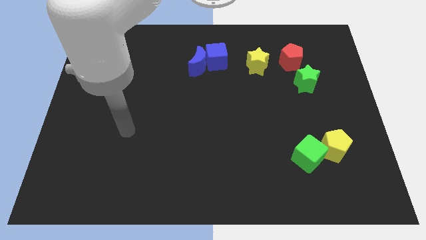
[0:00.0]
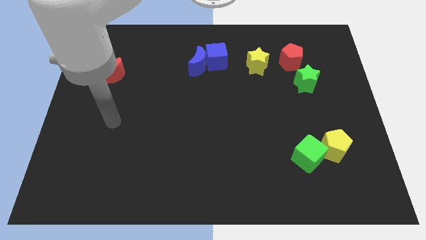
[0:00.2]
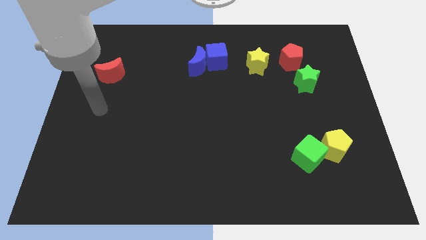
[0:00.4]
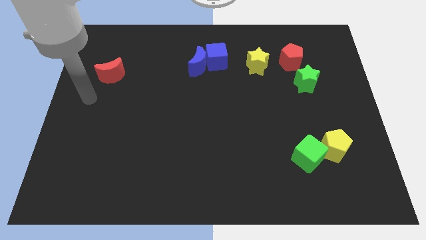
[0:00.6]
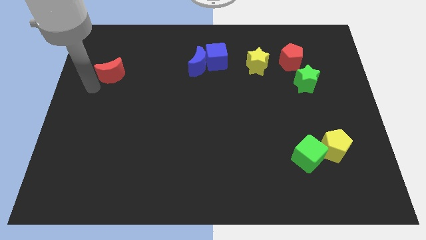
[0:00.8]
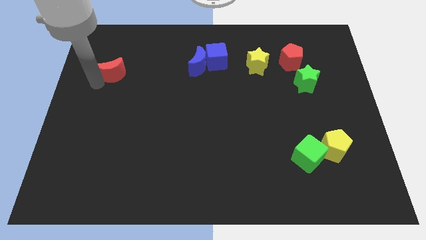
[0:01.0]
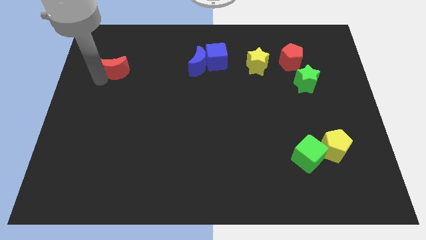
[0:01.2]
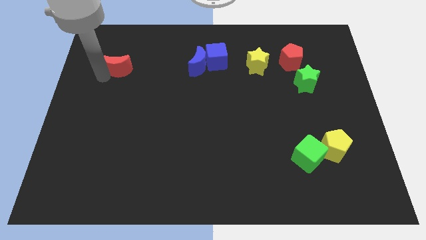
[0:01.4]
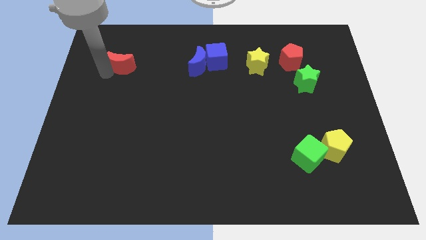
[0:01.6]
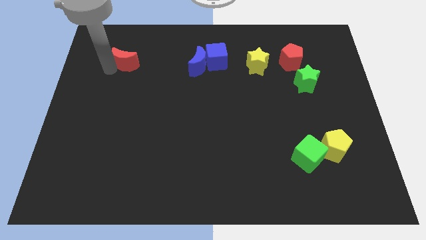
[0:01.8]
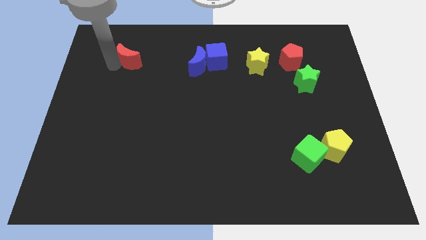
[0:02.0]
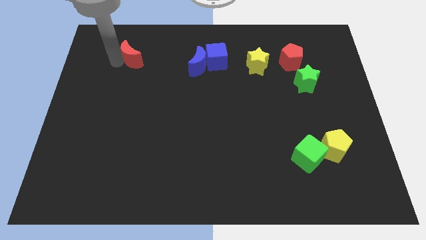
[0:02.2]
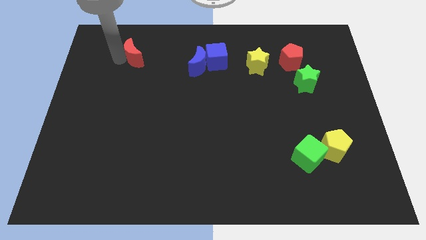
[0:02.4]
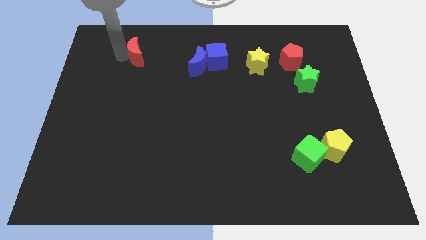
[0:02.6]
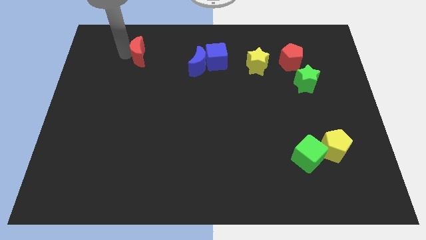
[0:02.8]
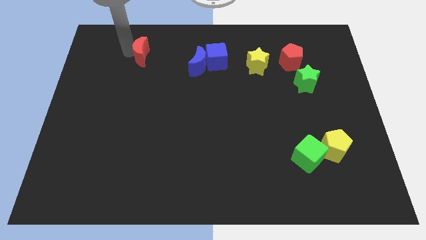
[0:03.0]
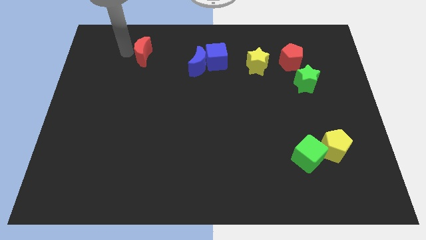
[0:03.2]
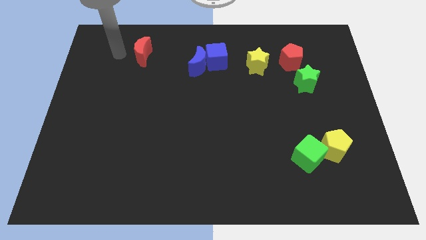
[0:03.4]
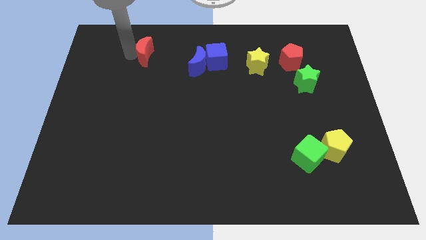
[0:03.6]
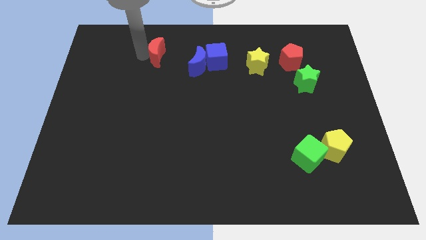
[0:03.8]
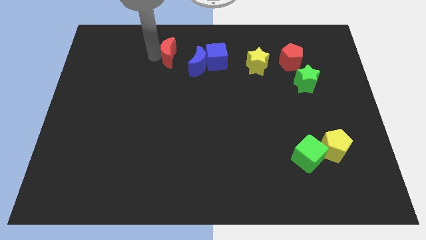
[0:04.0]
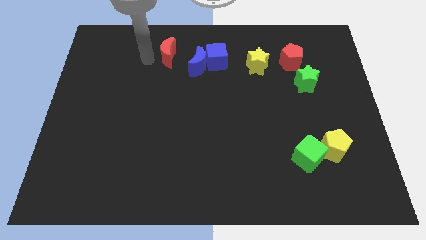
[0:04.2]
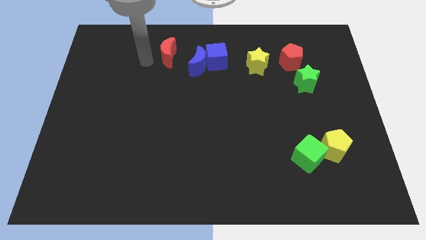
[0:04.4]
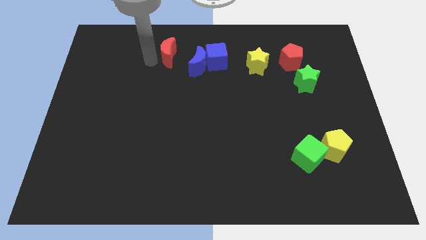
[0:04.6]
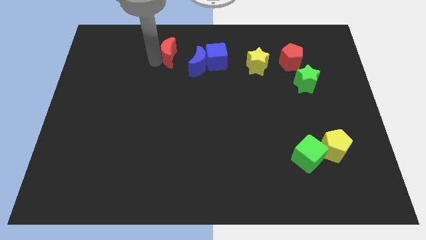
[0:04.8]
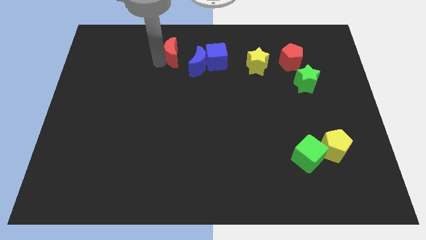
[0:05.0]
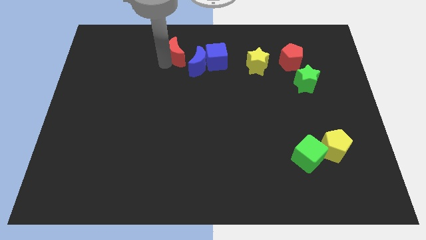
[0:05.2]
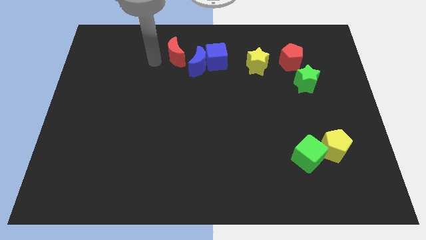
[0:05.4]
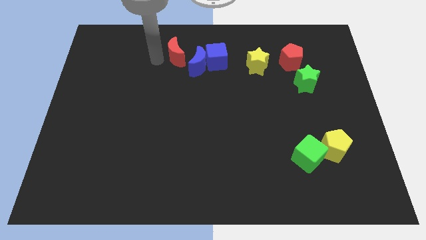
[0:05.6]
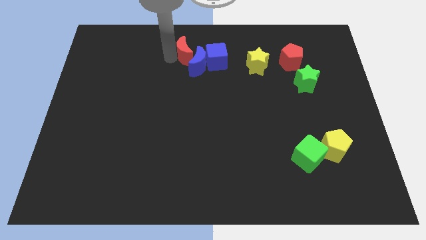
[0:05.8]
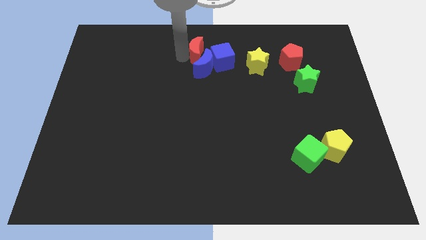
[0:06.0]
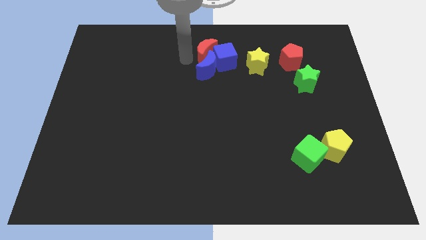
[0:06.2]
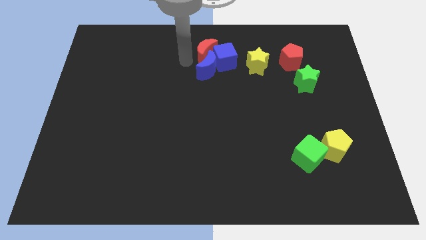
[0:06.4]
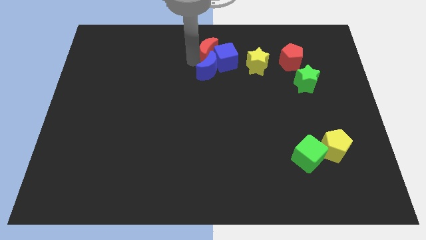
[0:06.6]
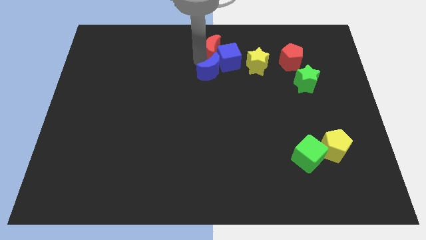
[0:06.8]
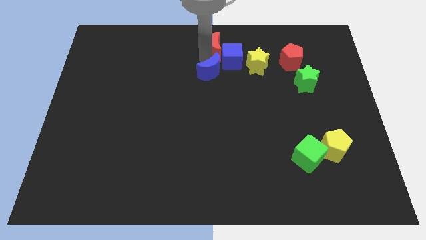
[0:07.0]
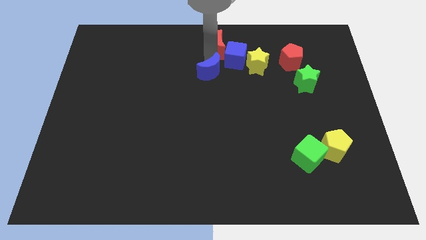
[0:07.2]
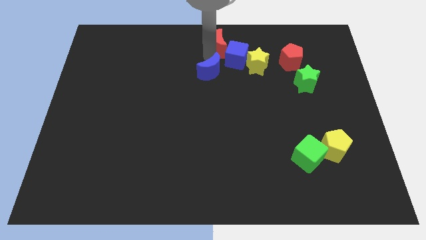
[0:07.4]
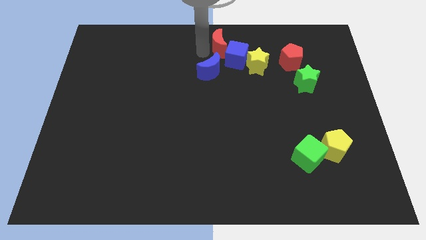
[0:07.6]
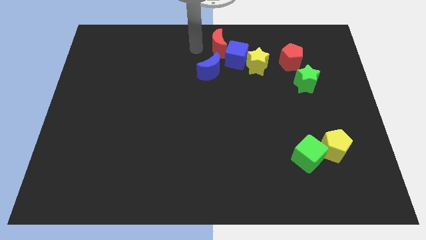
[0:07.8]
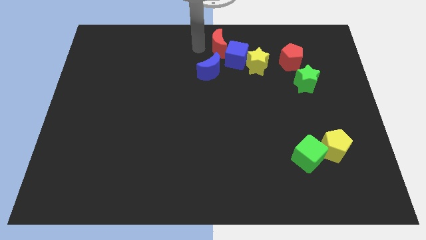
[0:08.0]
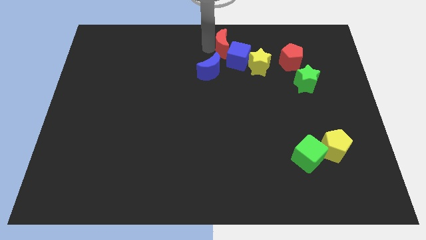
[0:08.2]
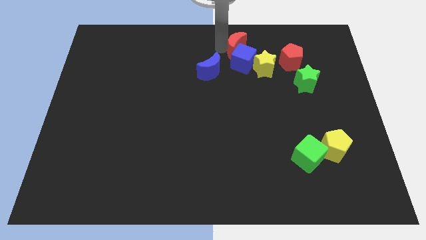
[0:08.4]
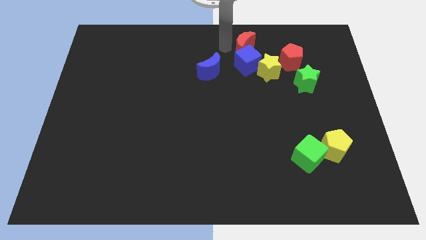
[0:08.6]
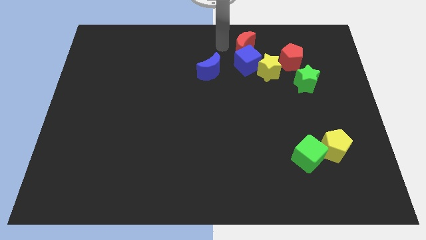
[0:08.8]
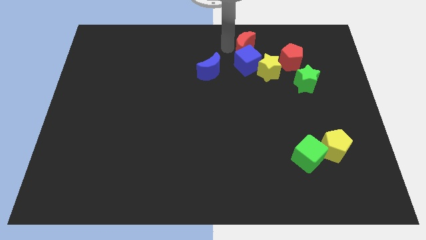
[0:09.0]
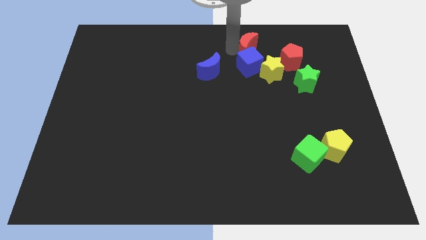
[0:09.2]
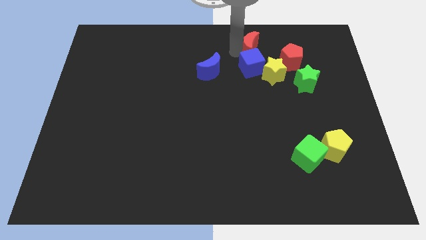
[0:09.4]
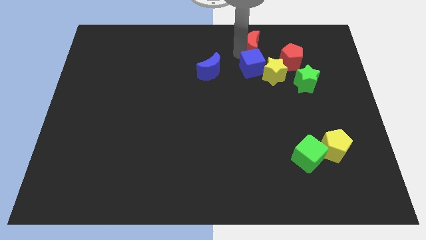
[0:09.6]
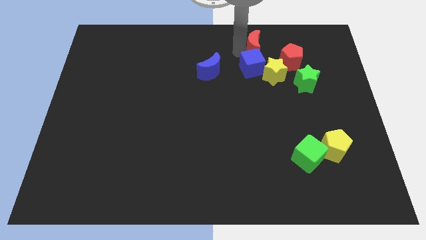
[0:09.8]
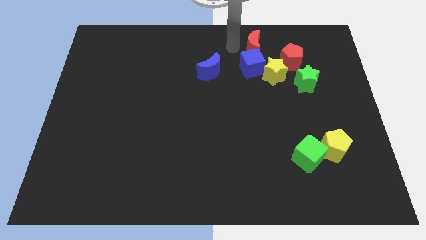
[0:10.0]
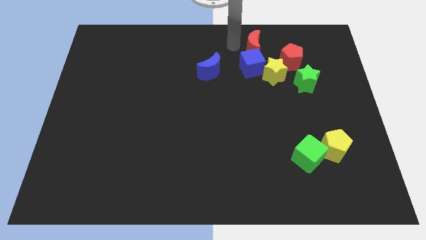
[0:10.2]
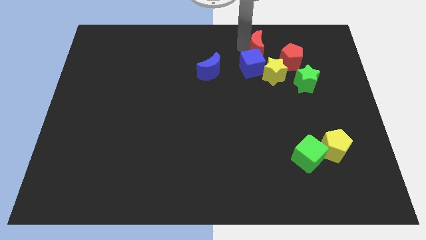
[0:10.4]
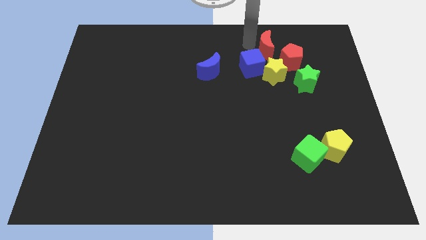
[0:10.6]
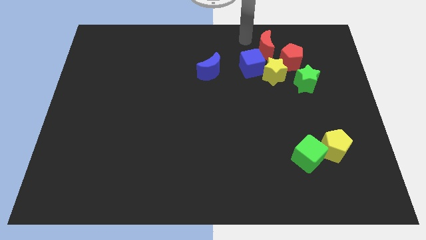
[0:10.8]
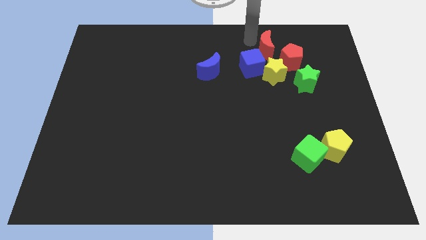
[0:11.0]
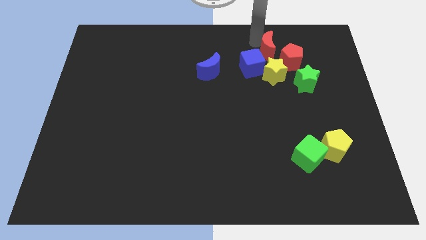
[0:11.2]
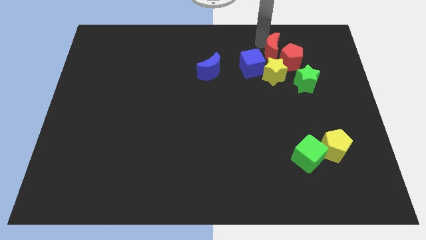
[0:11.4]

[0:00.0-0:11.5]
push the red moon towards the red pentagon

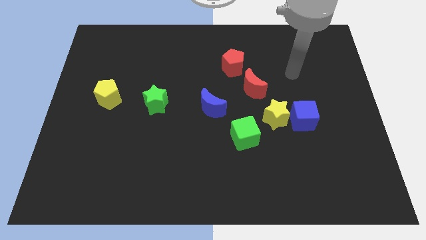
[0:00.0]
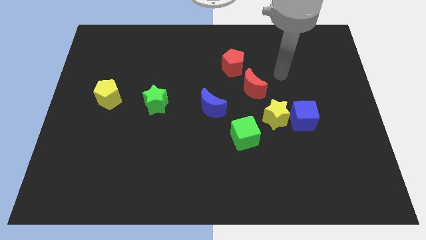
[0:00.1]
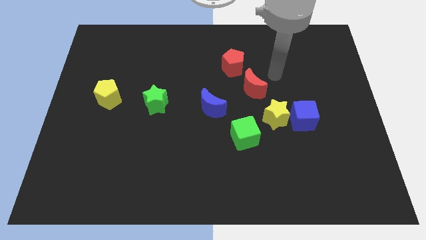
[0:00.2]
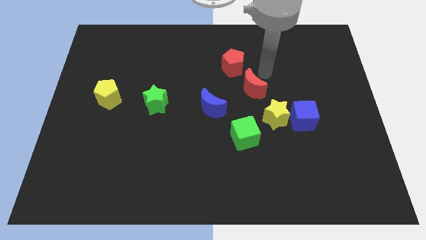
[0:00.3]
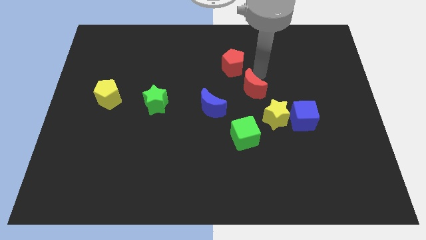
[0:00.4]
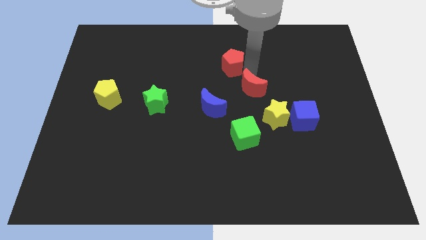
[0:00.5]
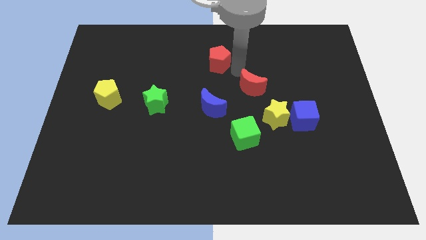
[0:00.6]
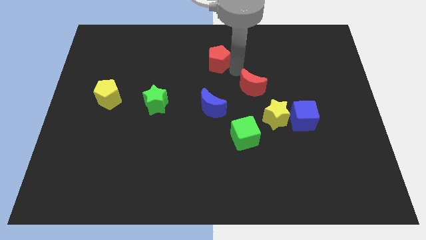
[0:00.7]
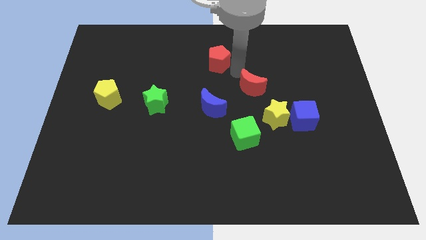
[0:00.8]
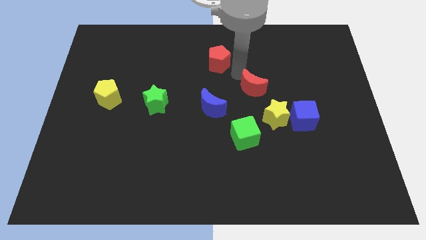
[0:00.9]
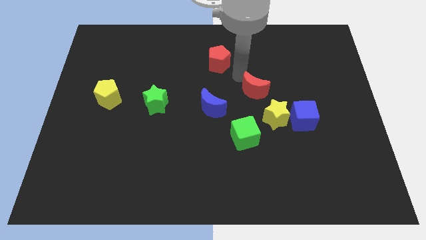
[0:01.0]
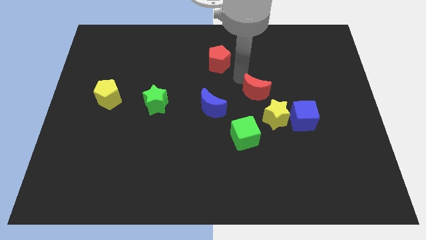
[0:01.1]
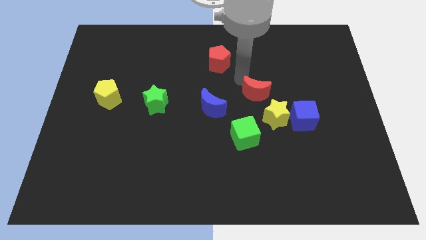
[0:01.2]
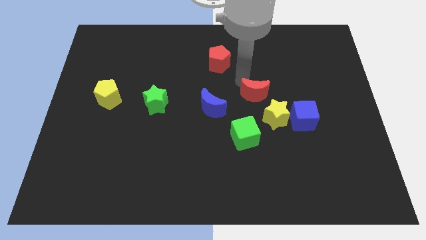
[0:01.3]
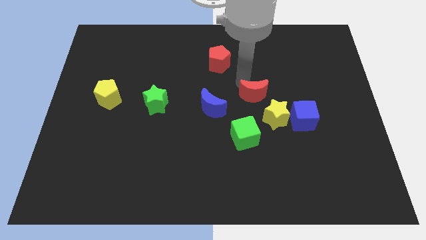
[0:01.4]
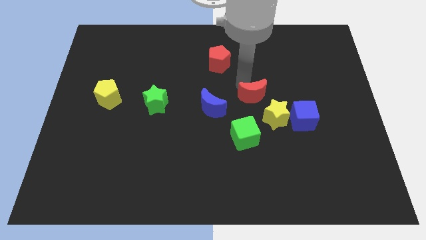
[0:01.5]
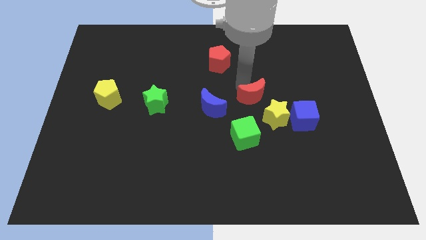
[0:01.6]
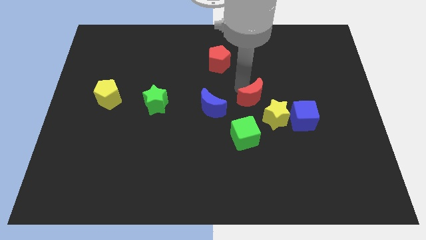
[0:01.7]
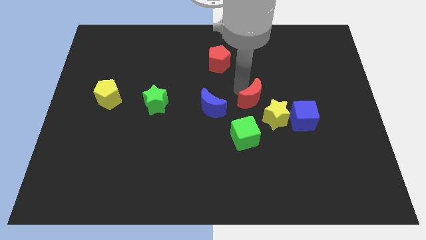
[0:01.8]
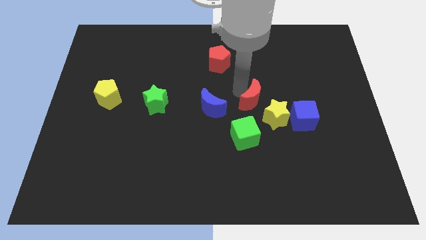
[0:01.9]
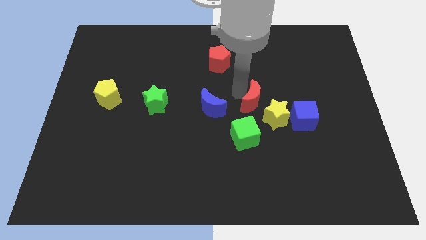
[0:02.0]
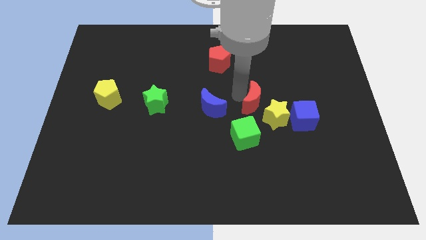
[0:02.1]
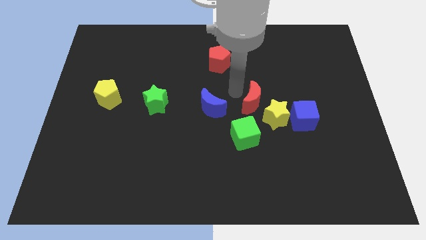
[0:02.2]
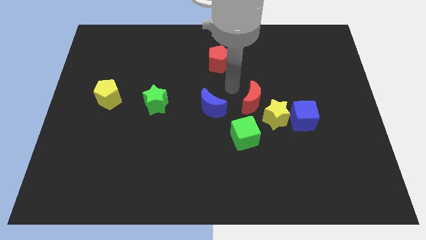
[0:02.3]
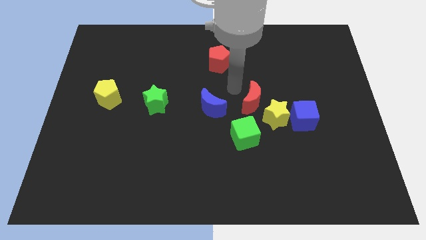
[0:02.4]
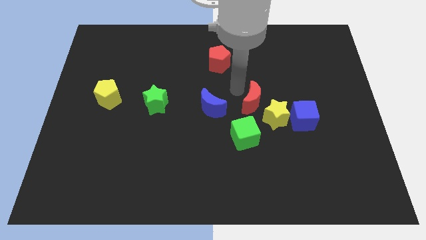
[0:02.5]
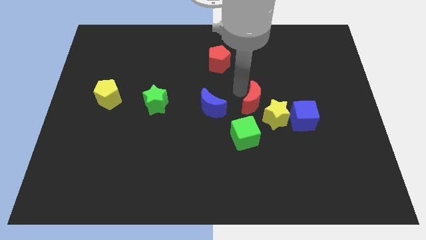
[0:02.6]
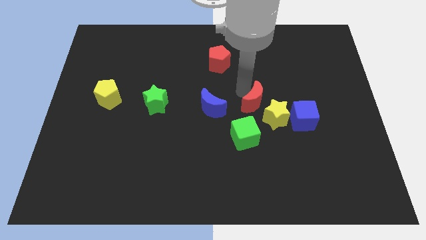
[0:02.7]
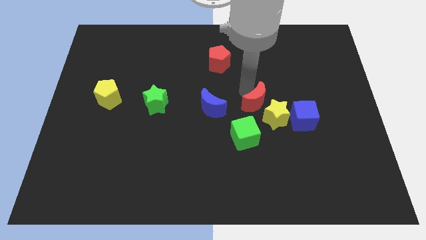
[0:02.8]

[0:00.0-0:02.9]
put the red moon to the yellow star
